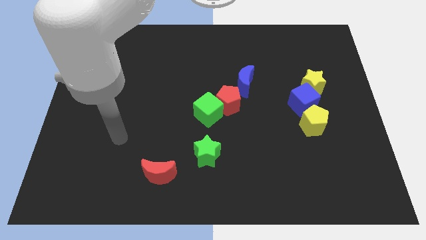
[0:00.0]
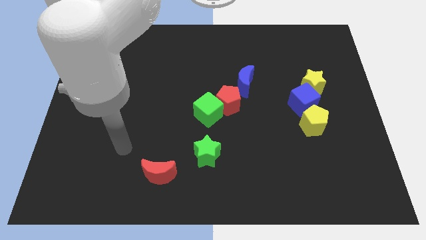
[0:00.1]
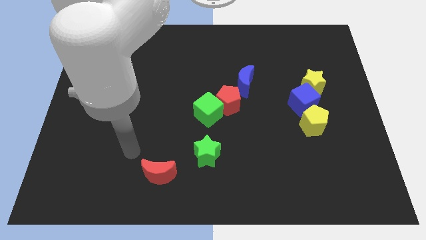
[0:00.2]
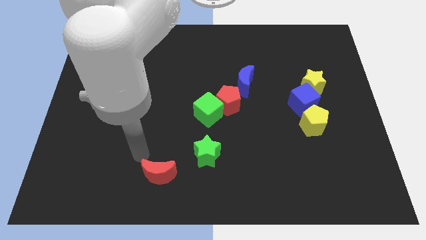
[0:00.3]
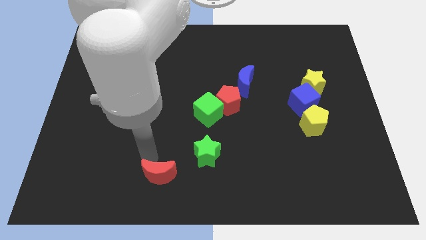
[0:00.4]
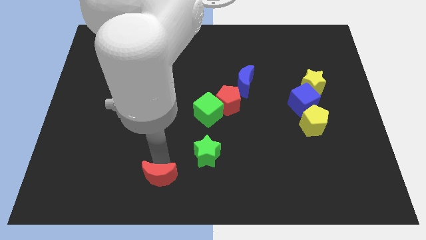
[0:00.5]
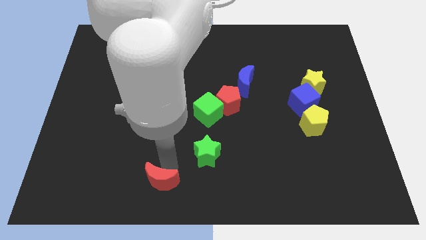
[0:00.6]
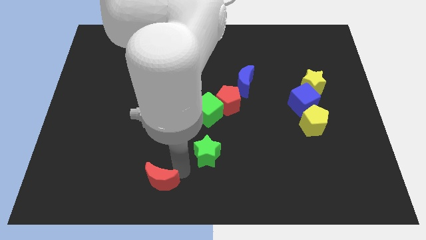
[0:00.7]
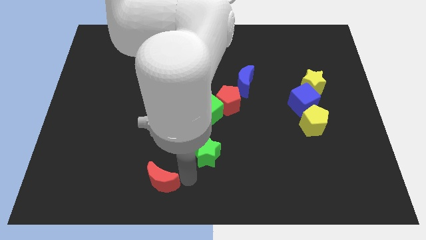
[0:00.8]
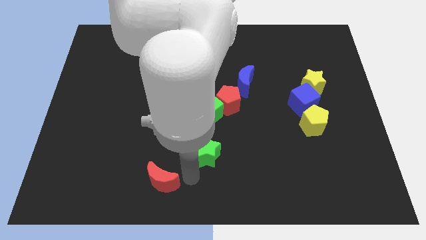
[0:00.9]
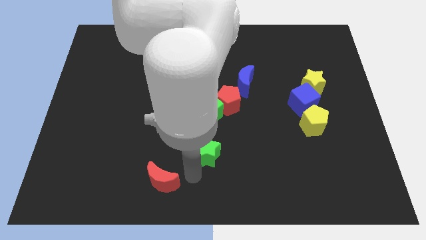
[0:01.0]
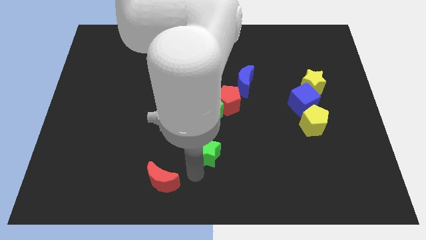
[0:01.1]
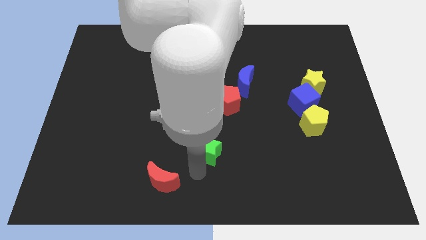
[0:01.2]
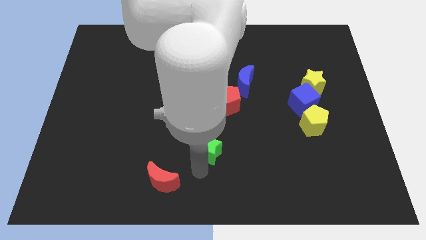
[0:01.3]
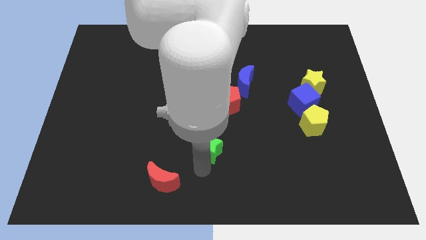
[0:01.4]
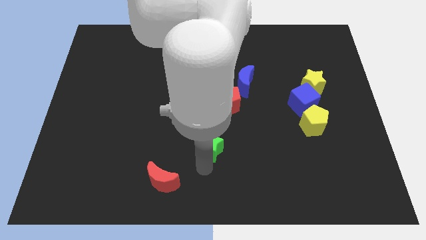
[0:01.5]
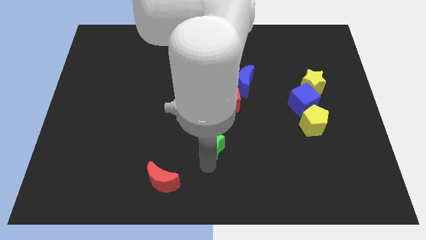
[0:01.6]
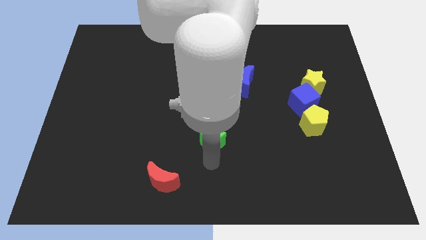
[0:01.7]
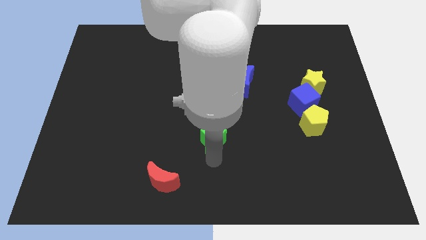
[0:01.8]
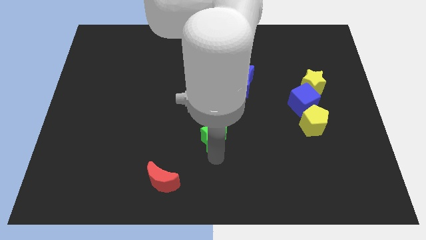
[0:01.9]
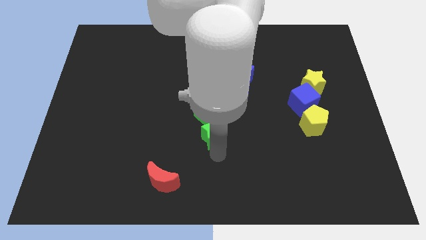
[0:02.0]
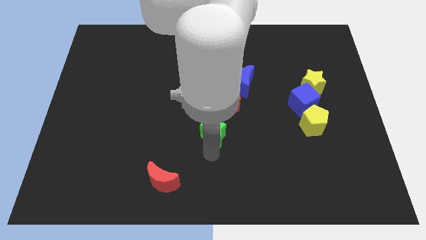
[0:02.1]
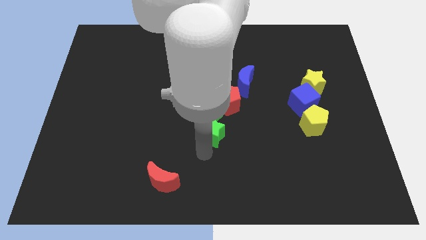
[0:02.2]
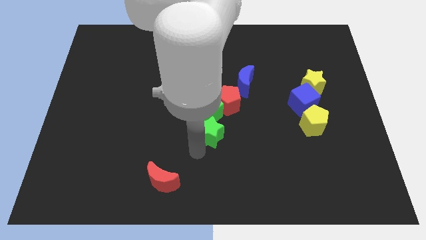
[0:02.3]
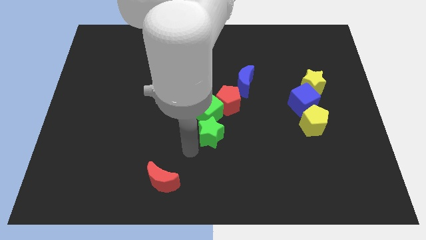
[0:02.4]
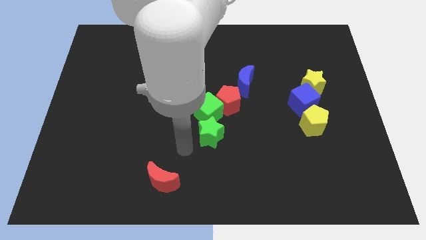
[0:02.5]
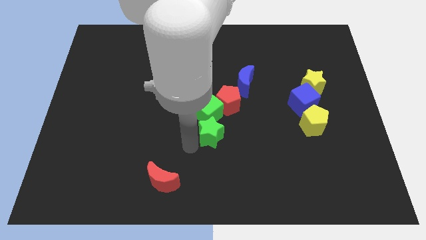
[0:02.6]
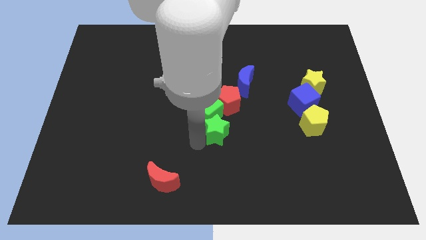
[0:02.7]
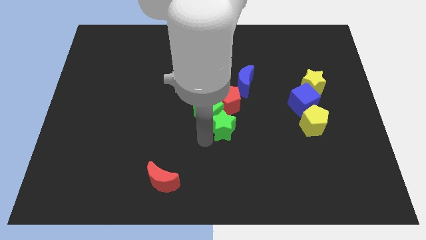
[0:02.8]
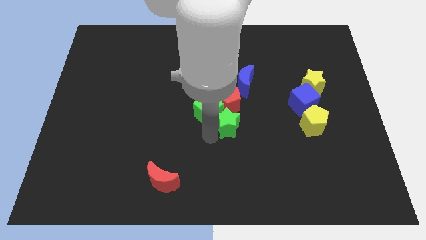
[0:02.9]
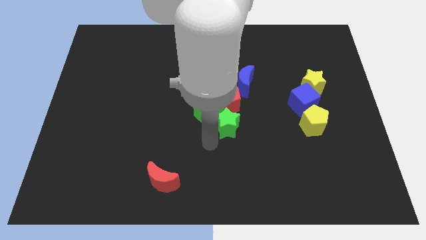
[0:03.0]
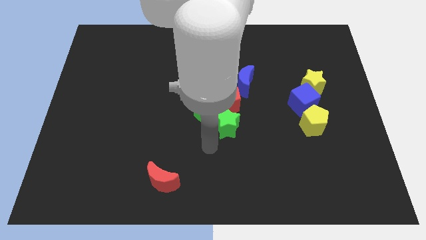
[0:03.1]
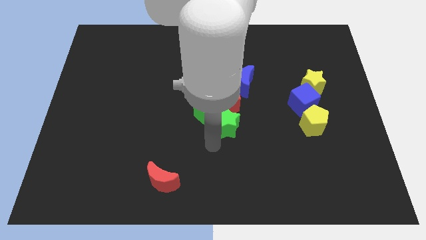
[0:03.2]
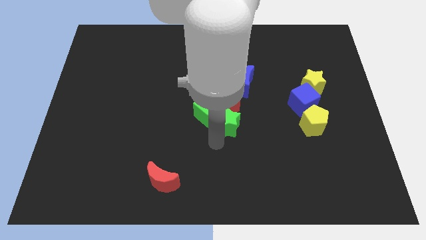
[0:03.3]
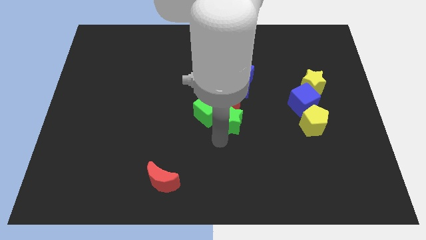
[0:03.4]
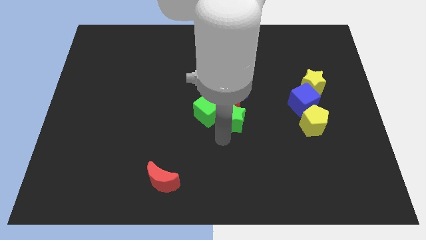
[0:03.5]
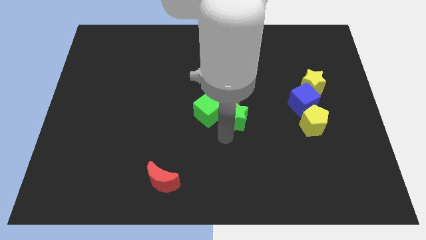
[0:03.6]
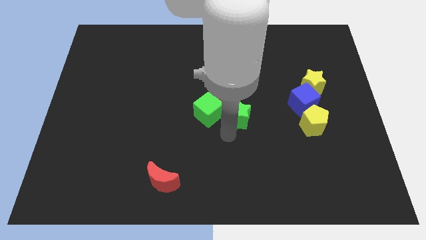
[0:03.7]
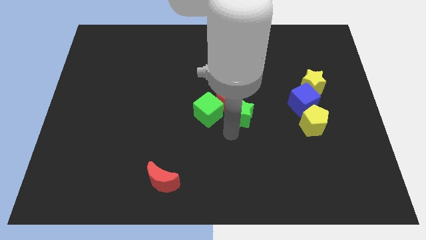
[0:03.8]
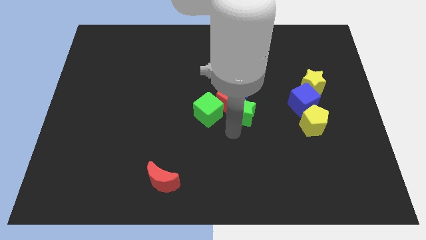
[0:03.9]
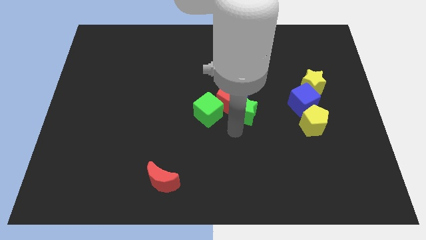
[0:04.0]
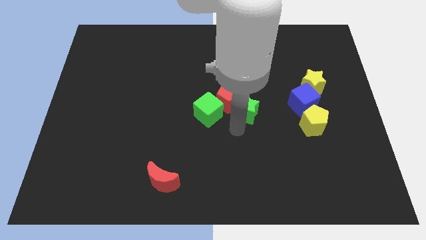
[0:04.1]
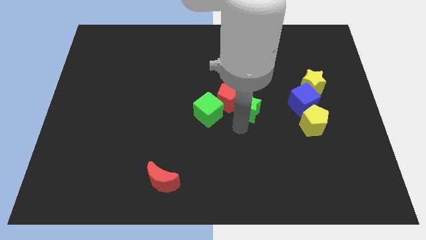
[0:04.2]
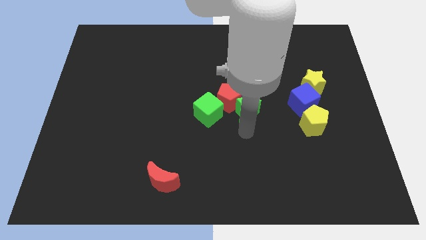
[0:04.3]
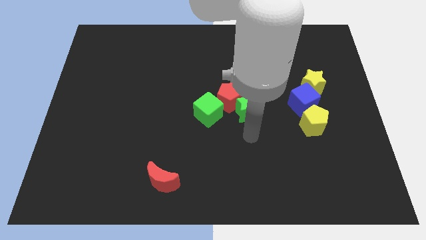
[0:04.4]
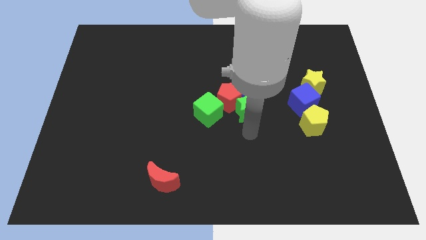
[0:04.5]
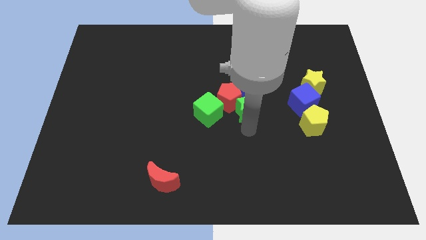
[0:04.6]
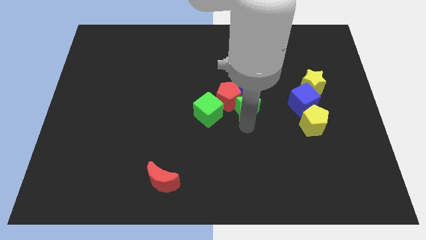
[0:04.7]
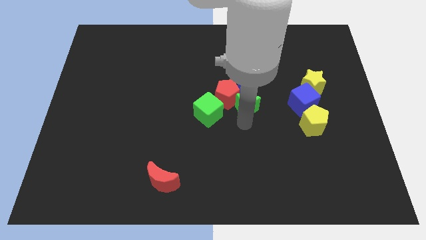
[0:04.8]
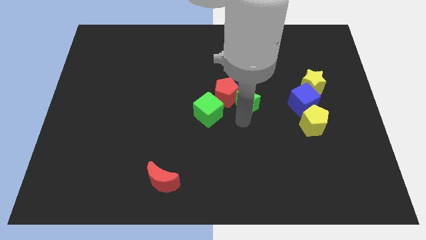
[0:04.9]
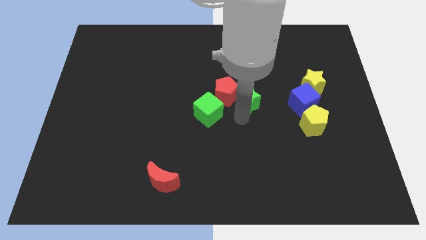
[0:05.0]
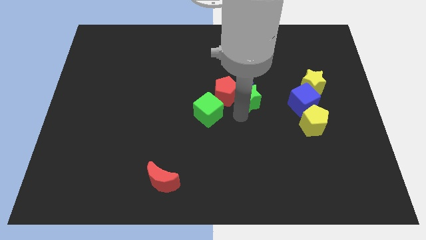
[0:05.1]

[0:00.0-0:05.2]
put the green star close to the blue moon

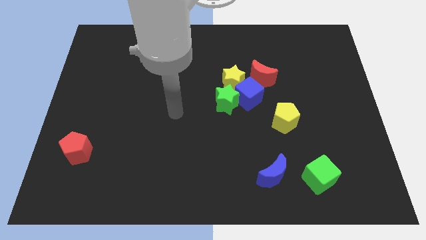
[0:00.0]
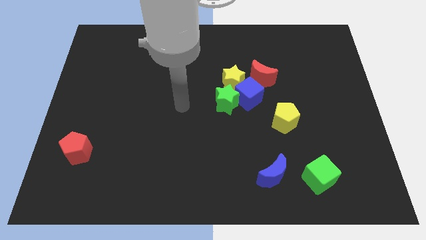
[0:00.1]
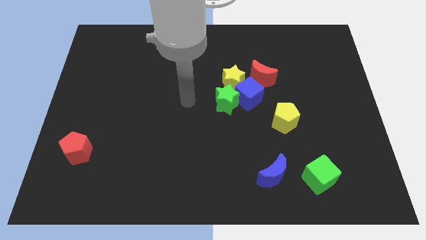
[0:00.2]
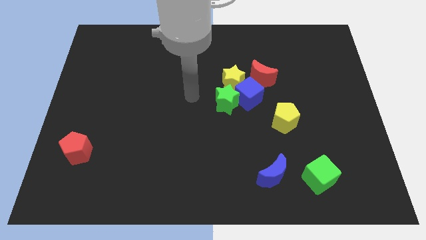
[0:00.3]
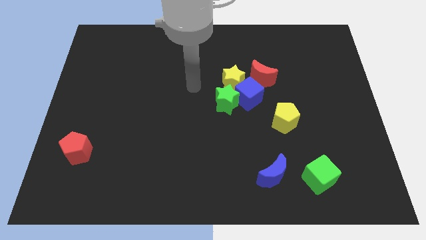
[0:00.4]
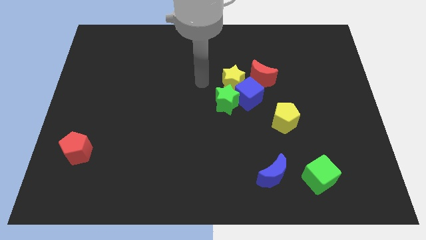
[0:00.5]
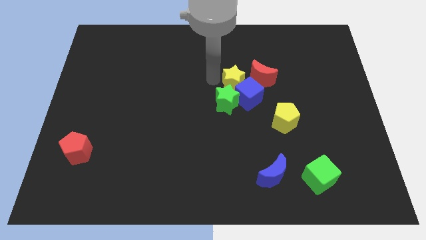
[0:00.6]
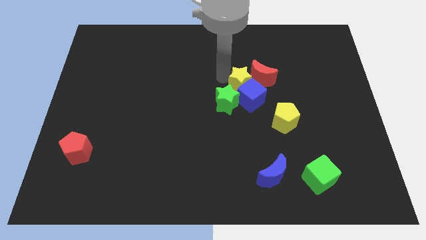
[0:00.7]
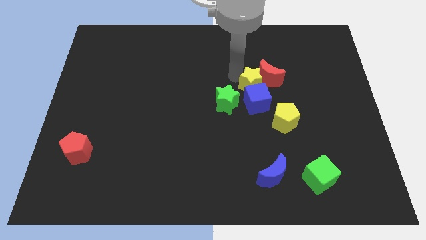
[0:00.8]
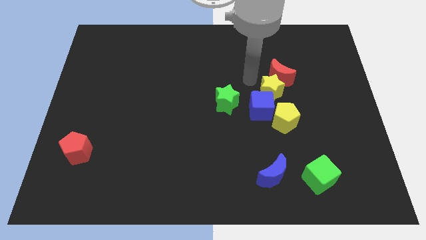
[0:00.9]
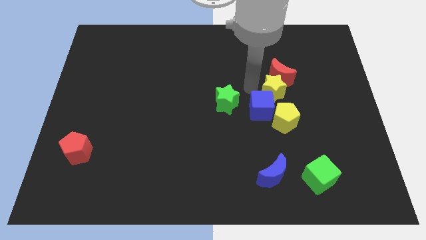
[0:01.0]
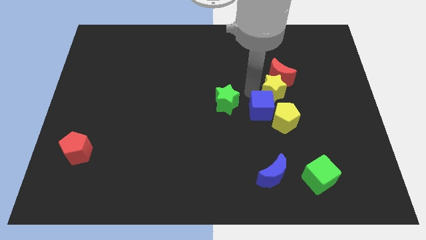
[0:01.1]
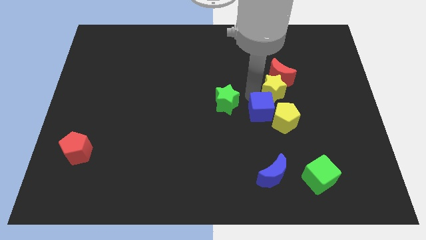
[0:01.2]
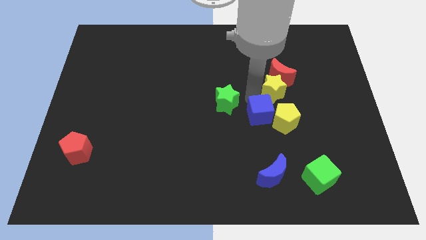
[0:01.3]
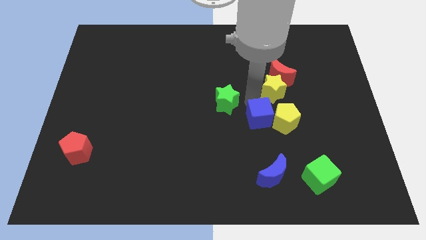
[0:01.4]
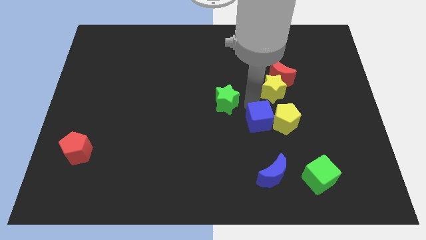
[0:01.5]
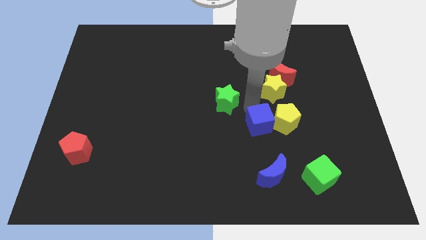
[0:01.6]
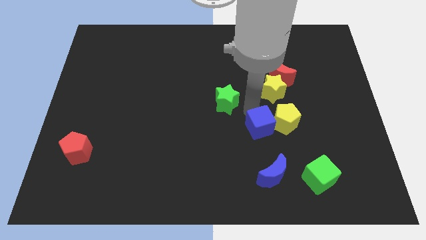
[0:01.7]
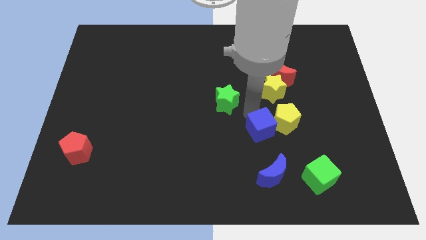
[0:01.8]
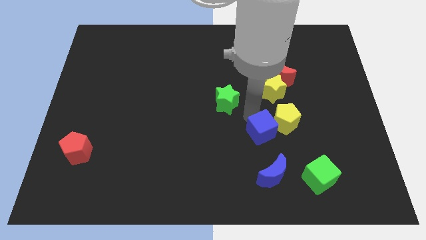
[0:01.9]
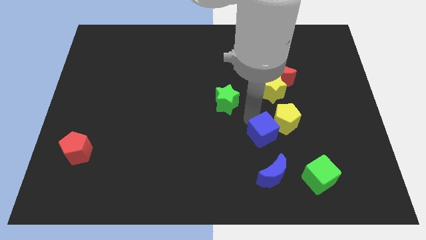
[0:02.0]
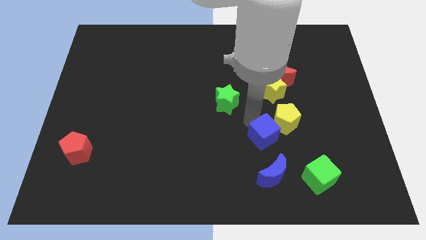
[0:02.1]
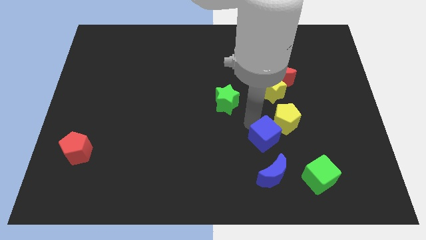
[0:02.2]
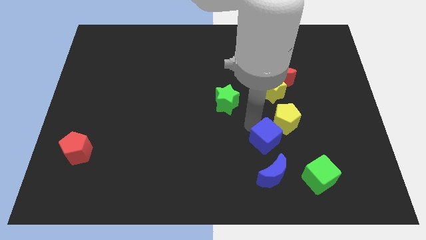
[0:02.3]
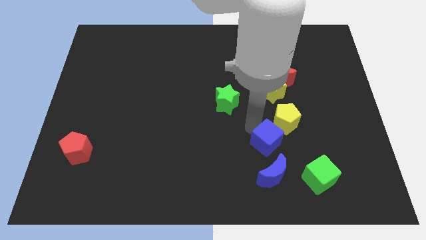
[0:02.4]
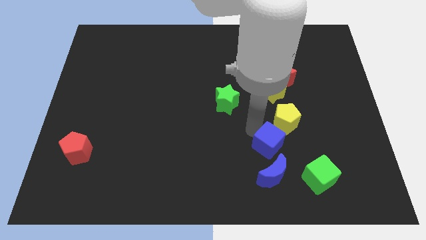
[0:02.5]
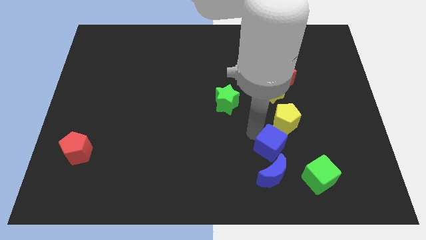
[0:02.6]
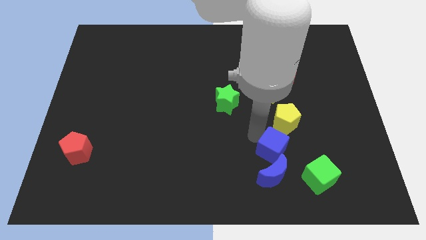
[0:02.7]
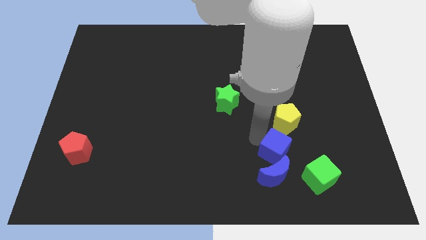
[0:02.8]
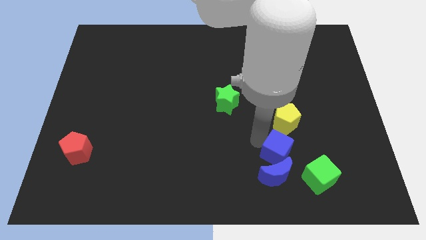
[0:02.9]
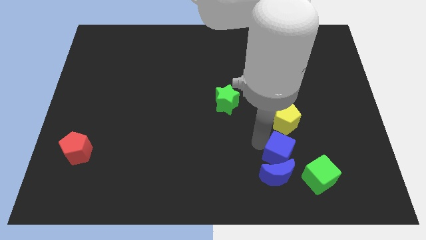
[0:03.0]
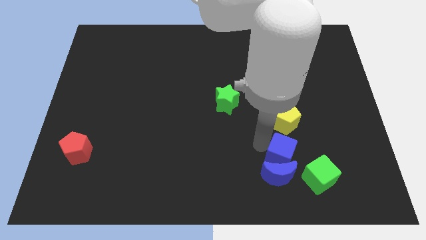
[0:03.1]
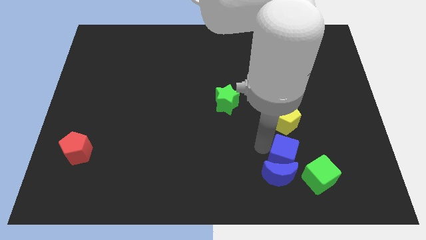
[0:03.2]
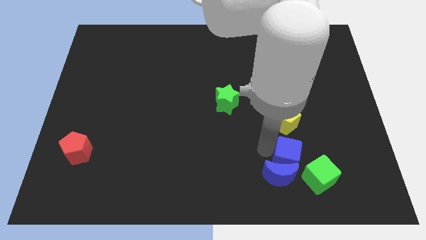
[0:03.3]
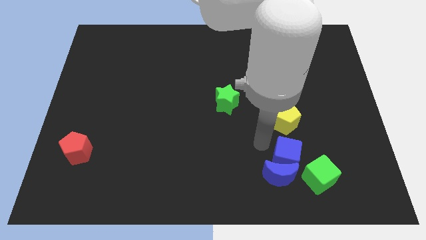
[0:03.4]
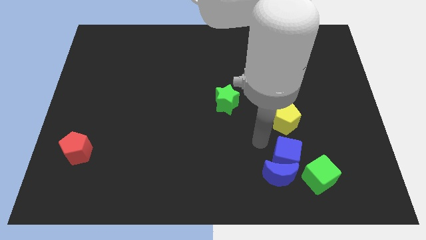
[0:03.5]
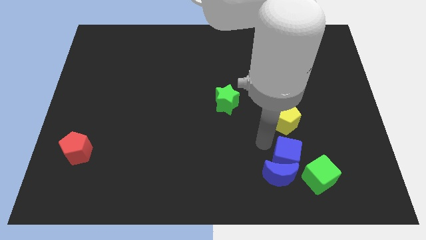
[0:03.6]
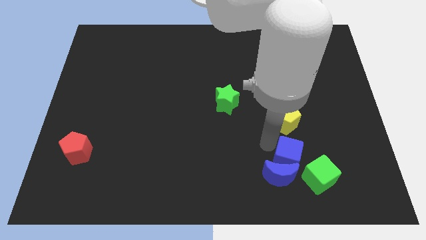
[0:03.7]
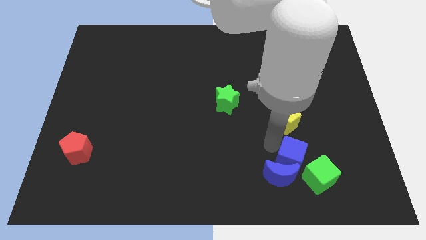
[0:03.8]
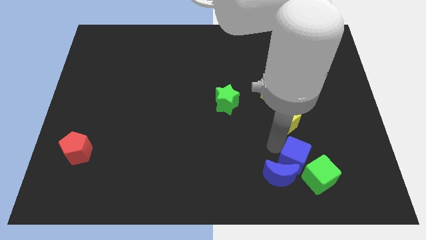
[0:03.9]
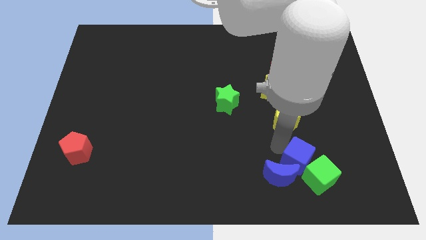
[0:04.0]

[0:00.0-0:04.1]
move the blue cube to the green cube
